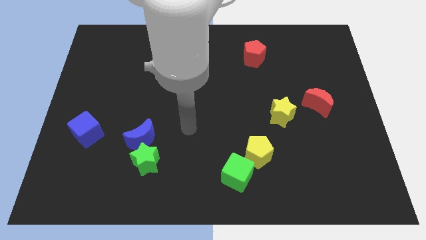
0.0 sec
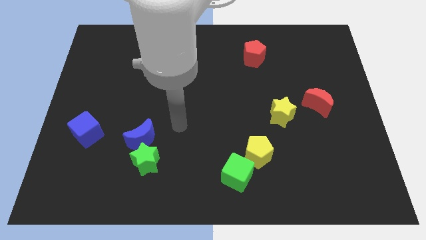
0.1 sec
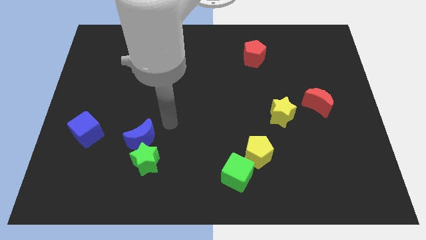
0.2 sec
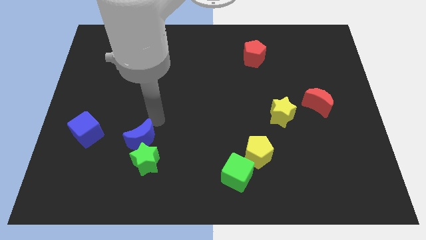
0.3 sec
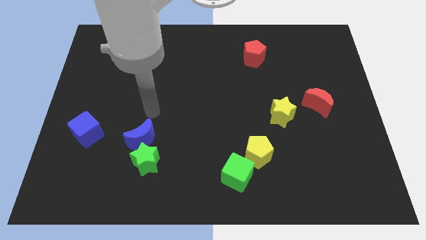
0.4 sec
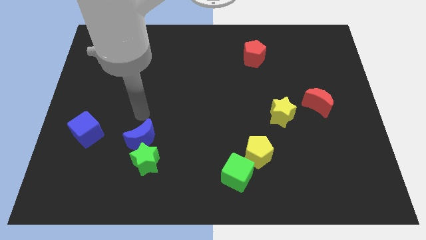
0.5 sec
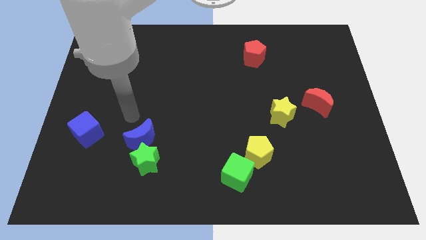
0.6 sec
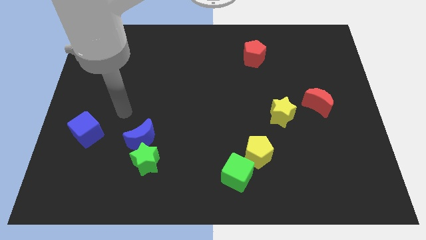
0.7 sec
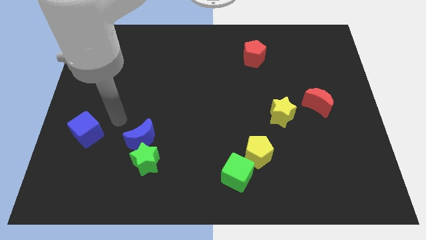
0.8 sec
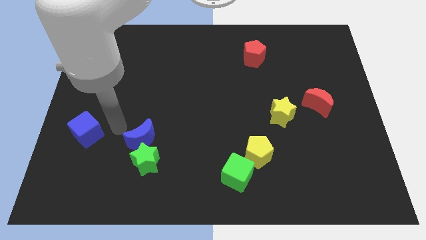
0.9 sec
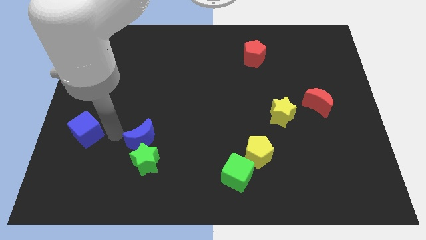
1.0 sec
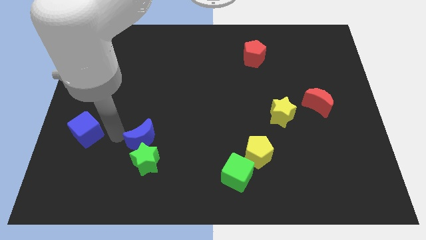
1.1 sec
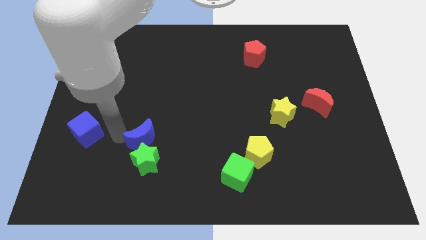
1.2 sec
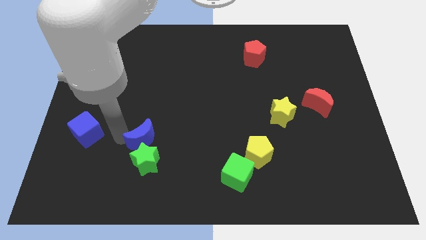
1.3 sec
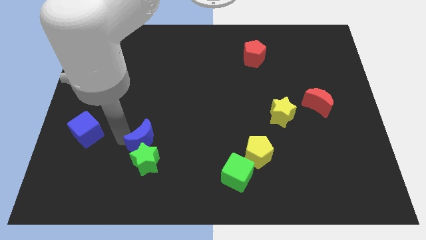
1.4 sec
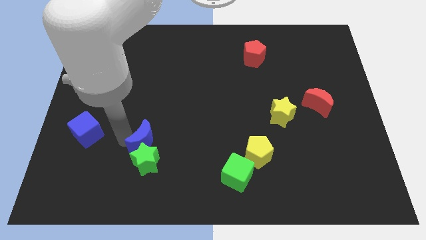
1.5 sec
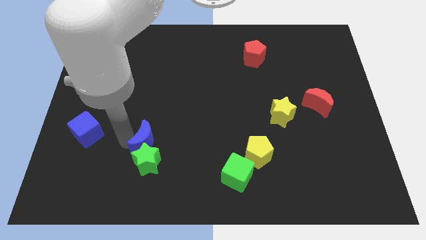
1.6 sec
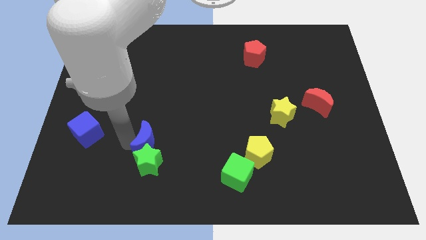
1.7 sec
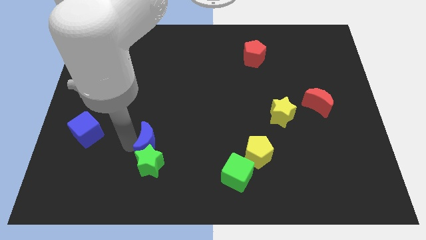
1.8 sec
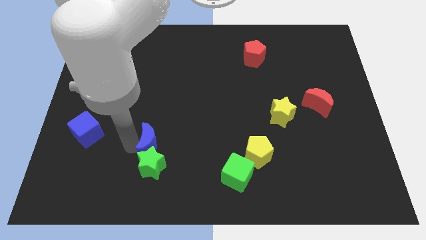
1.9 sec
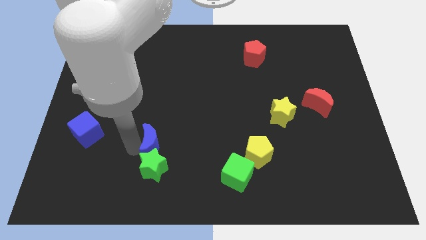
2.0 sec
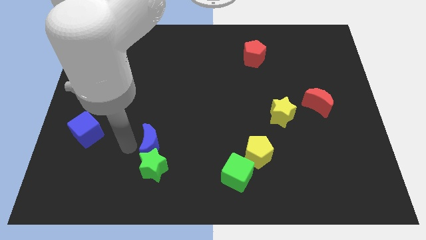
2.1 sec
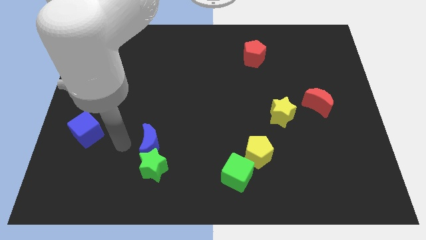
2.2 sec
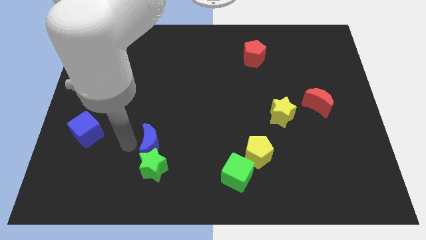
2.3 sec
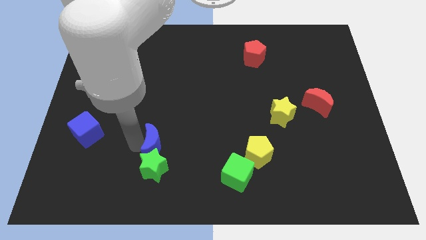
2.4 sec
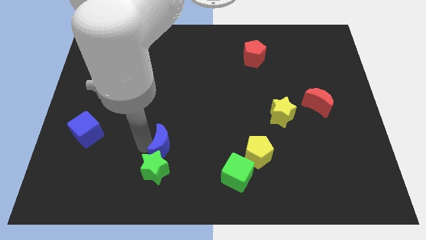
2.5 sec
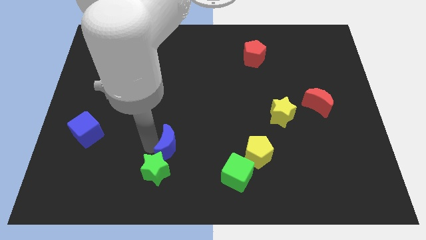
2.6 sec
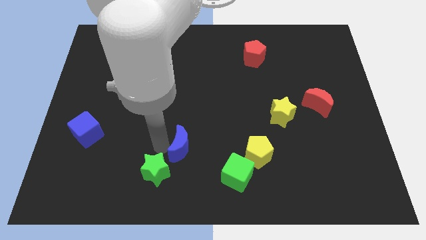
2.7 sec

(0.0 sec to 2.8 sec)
push the blue moon a little right

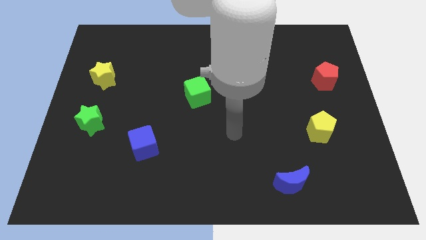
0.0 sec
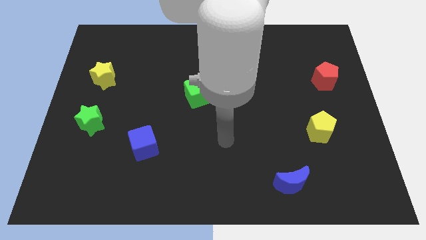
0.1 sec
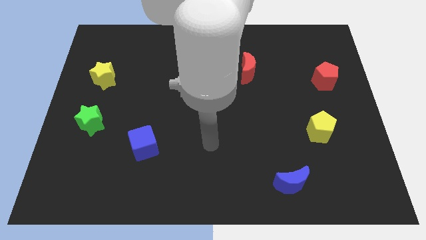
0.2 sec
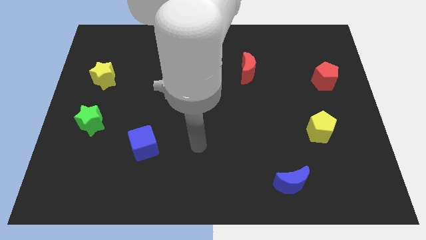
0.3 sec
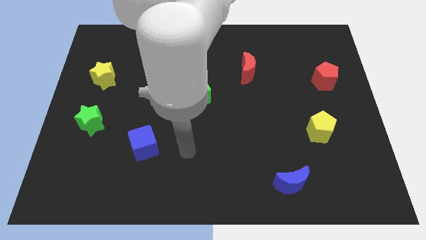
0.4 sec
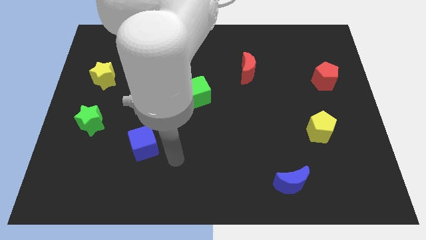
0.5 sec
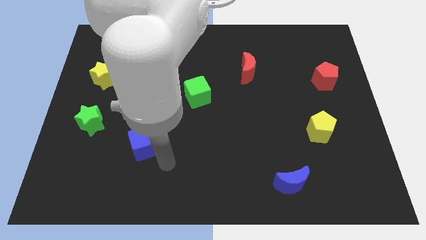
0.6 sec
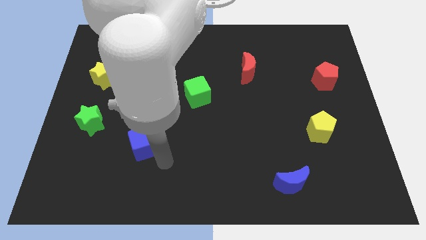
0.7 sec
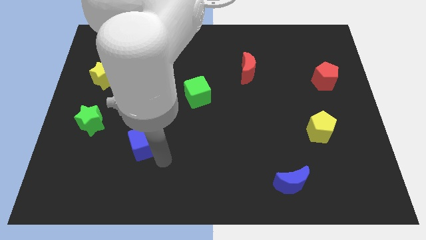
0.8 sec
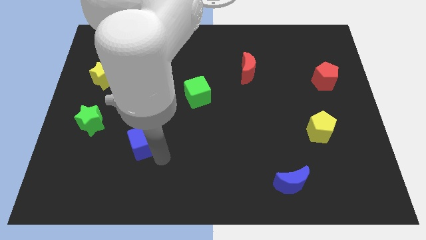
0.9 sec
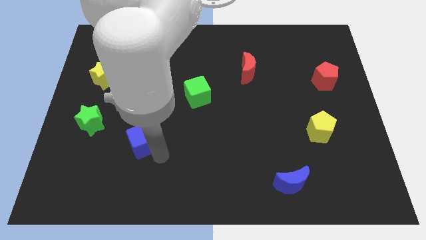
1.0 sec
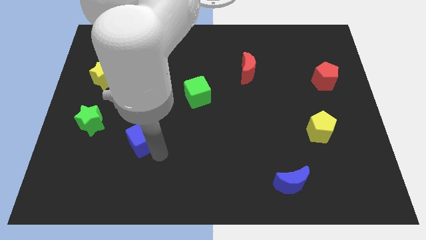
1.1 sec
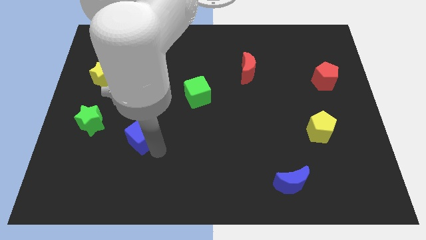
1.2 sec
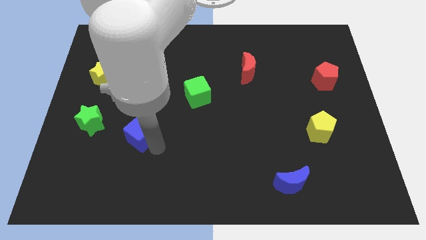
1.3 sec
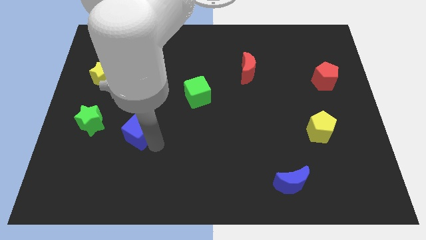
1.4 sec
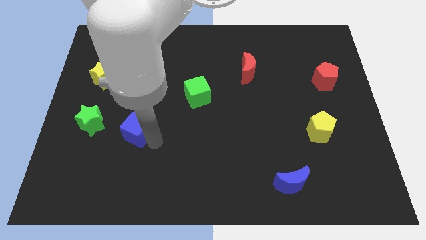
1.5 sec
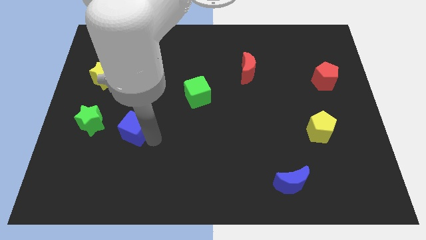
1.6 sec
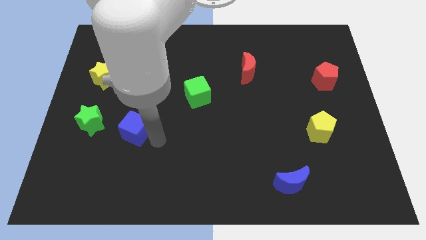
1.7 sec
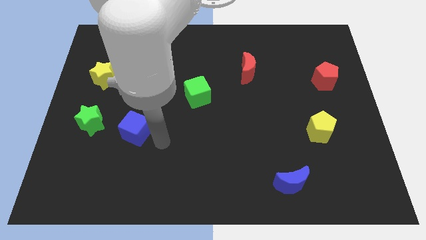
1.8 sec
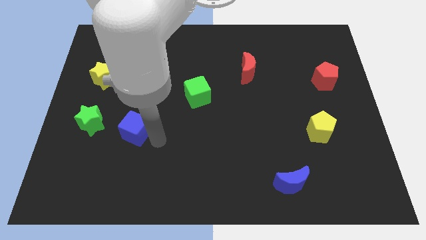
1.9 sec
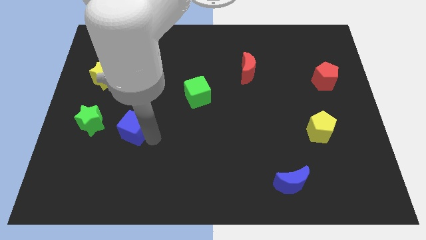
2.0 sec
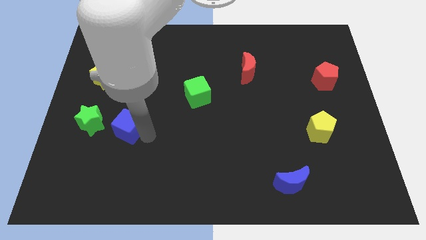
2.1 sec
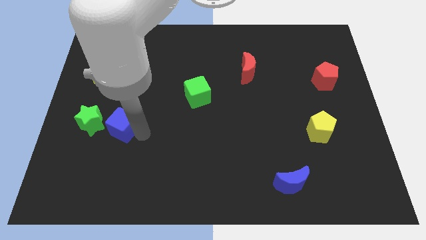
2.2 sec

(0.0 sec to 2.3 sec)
slide the blue cube diagonally upwards and left slightly

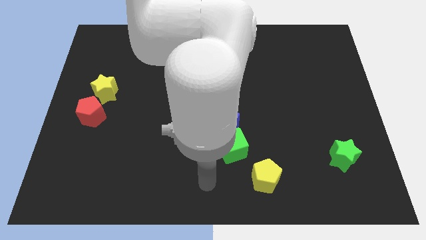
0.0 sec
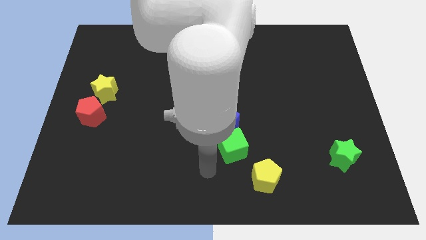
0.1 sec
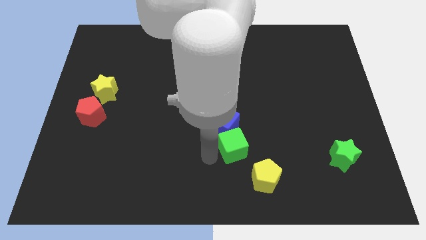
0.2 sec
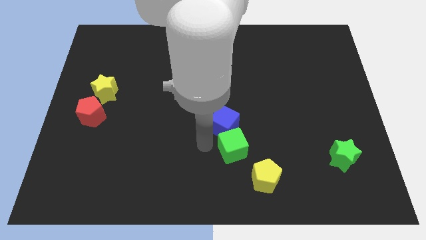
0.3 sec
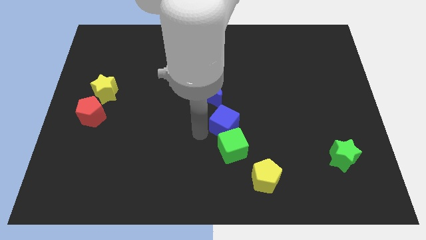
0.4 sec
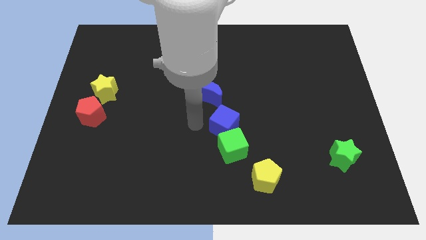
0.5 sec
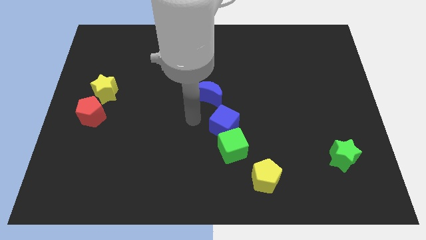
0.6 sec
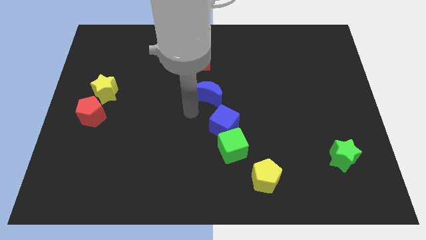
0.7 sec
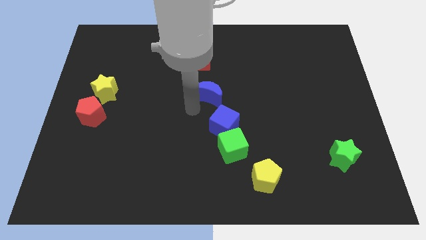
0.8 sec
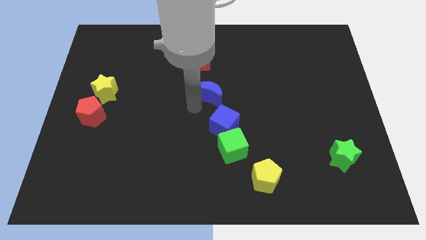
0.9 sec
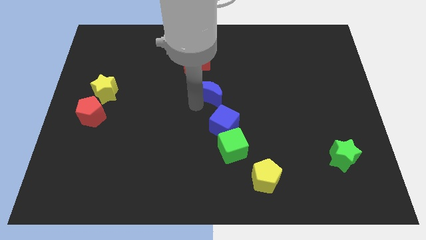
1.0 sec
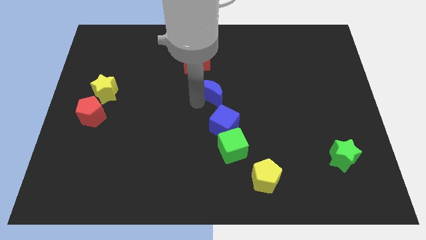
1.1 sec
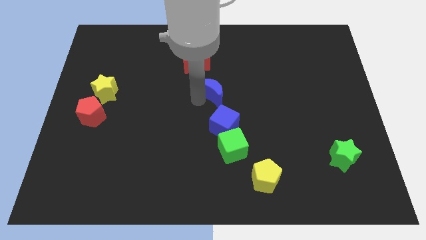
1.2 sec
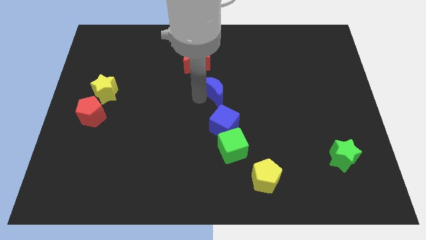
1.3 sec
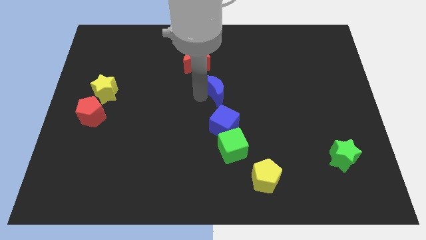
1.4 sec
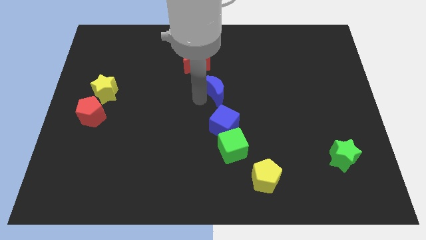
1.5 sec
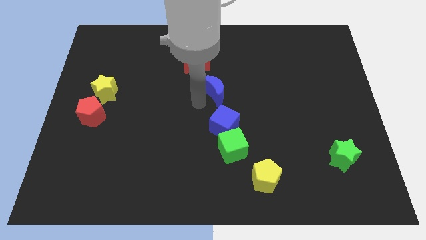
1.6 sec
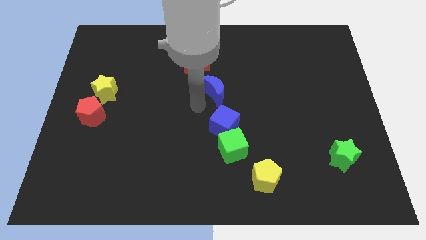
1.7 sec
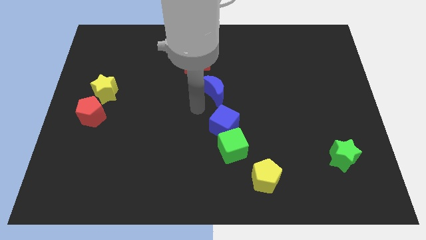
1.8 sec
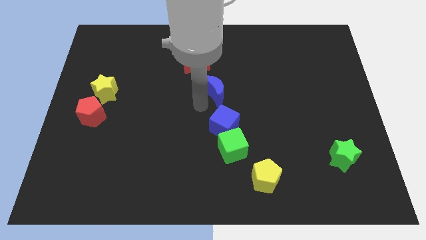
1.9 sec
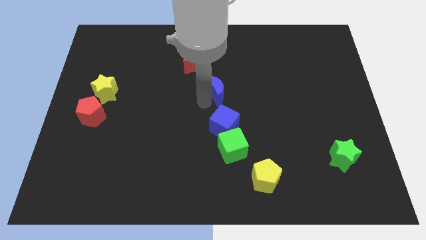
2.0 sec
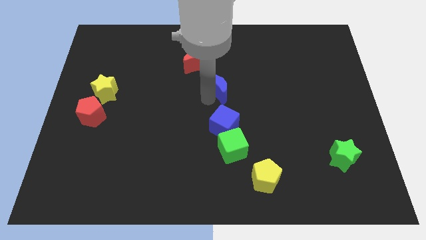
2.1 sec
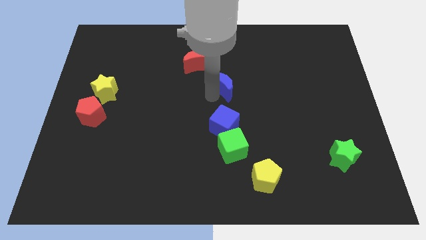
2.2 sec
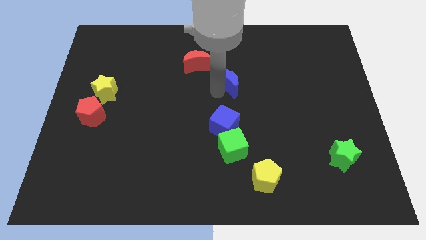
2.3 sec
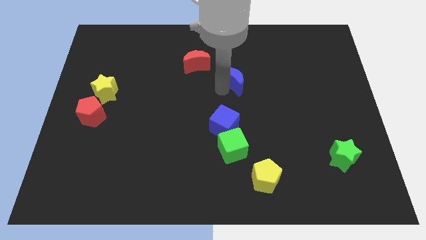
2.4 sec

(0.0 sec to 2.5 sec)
push the blue moon a little up and then to the right

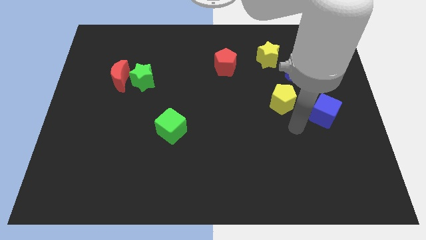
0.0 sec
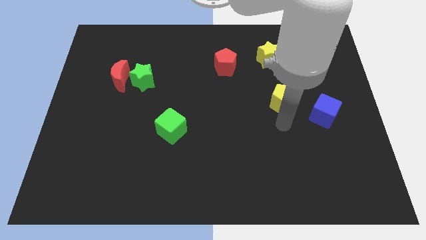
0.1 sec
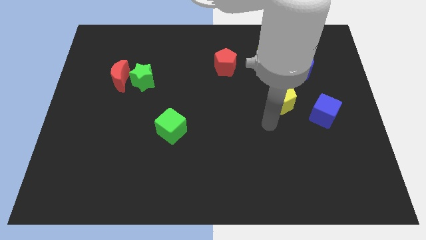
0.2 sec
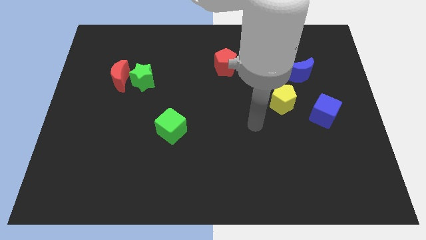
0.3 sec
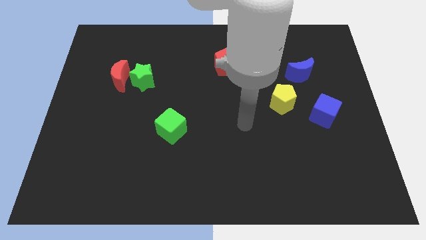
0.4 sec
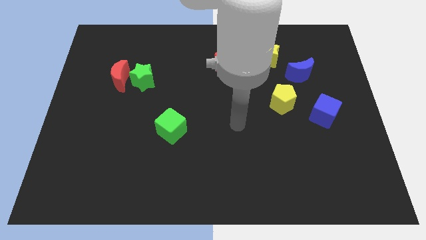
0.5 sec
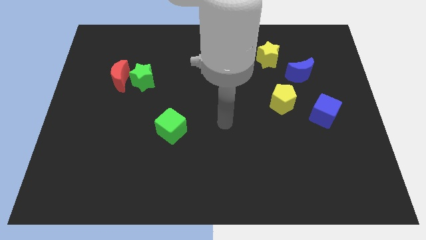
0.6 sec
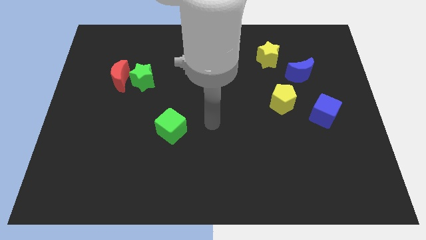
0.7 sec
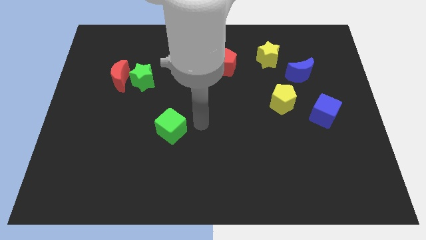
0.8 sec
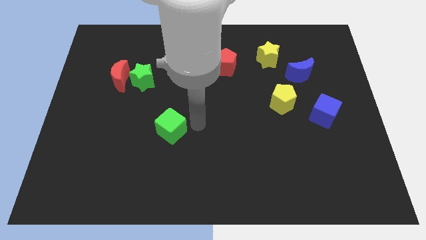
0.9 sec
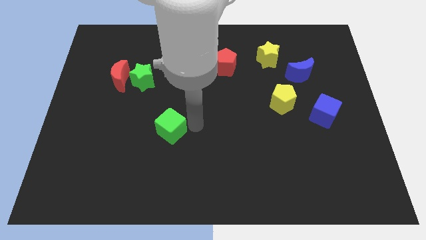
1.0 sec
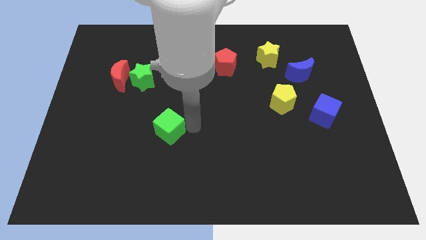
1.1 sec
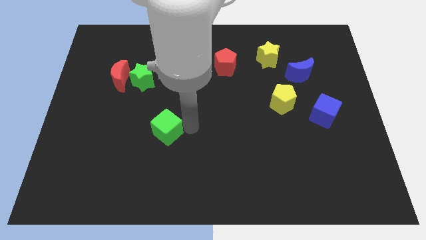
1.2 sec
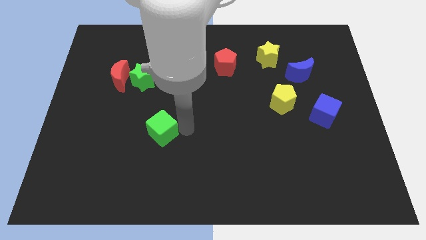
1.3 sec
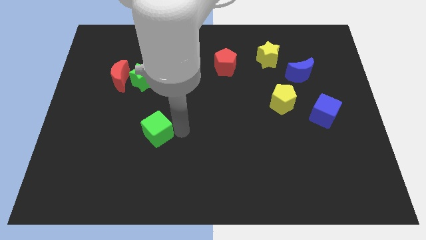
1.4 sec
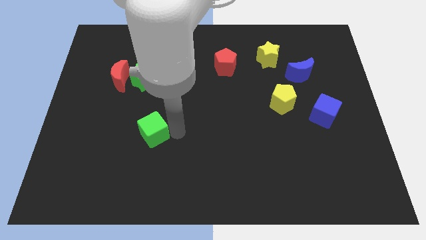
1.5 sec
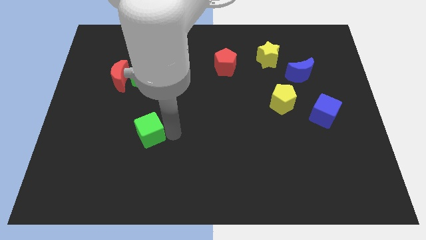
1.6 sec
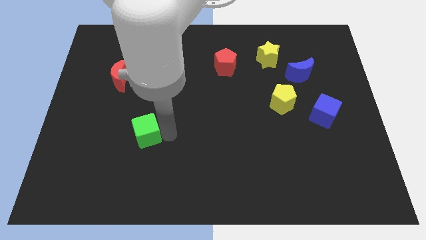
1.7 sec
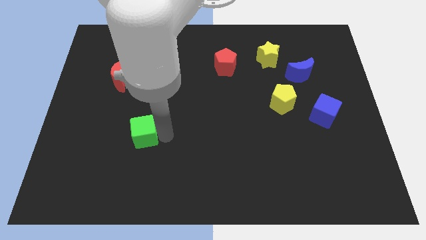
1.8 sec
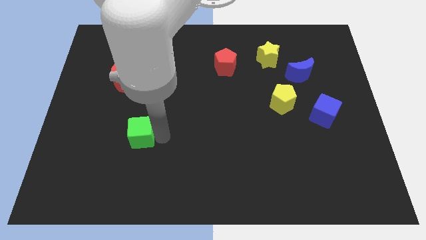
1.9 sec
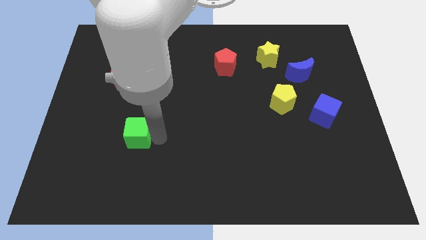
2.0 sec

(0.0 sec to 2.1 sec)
slightly move the green cube to the left
